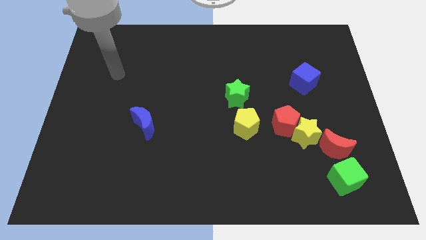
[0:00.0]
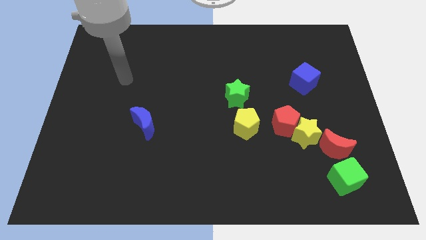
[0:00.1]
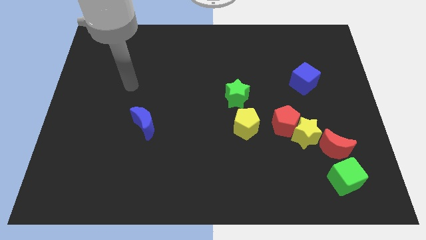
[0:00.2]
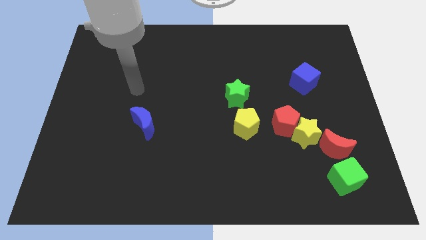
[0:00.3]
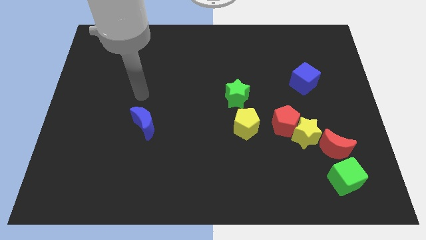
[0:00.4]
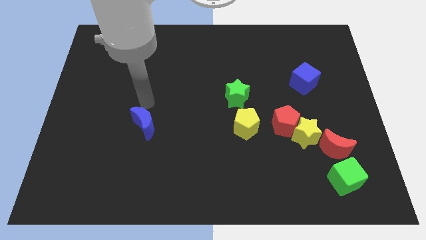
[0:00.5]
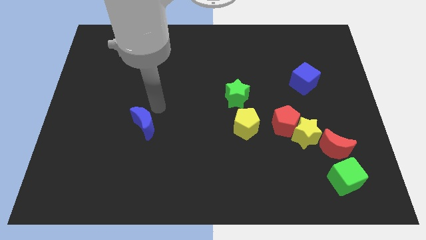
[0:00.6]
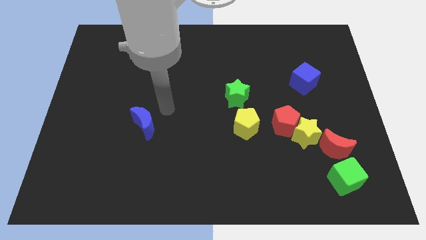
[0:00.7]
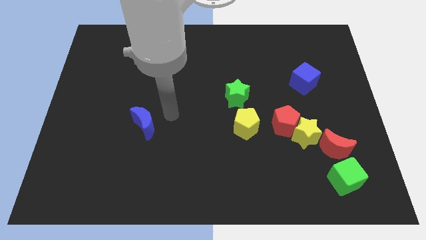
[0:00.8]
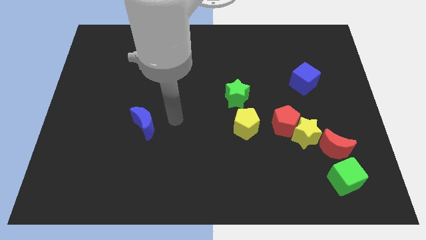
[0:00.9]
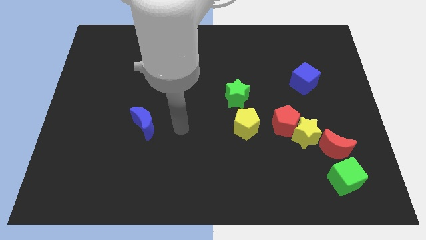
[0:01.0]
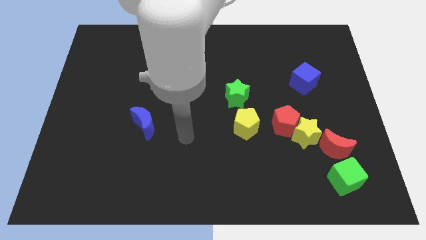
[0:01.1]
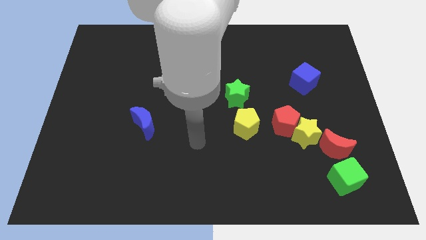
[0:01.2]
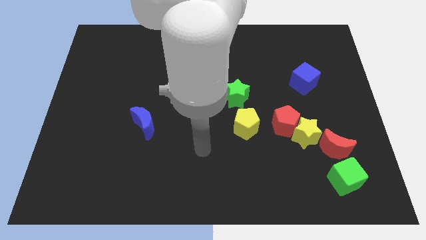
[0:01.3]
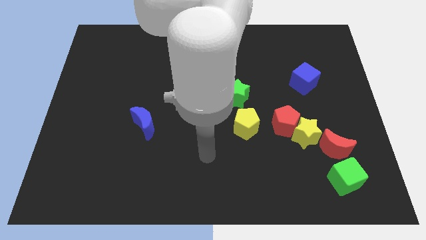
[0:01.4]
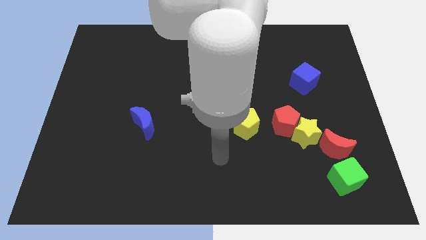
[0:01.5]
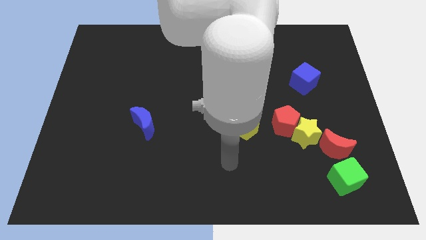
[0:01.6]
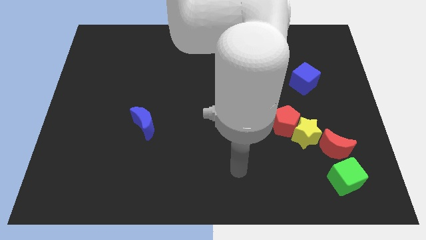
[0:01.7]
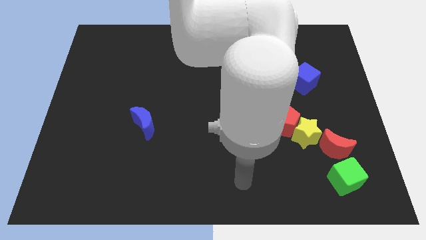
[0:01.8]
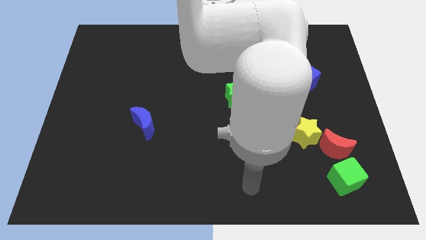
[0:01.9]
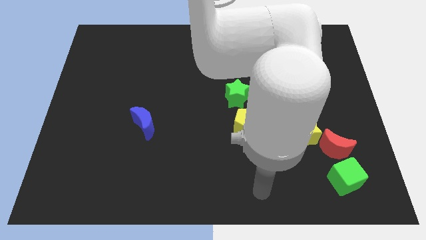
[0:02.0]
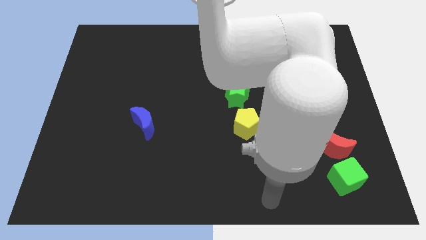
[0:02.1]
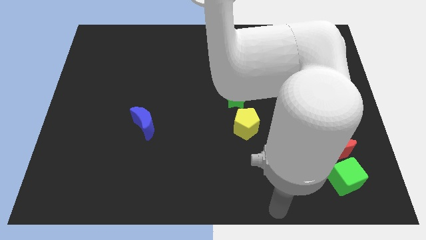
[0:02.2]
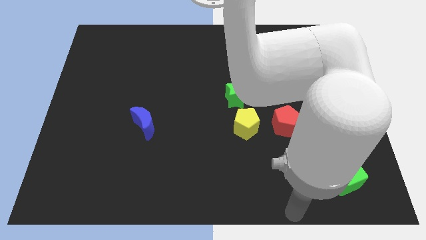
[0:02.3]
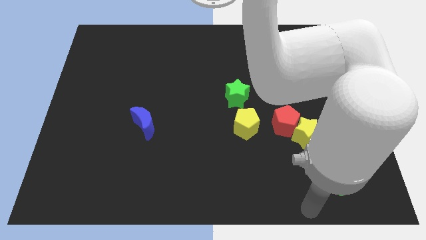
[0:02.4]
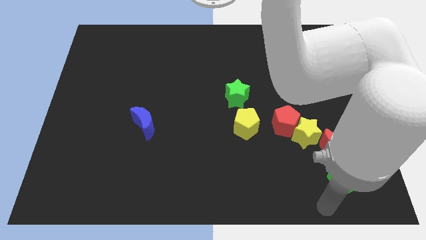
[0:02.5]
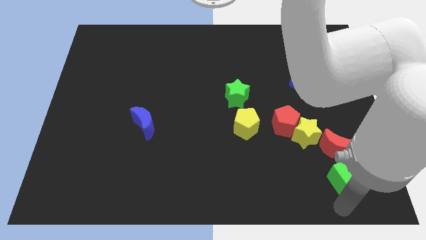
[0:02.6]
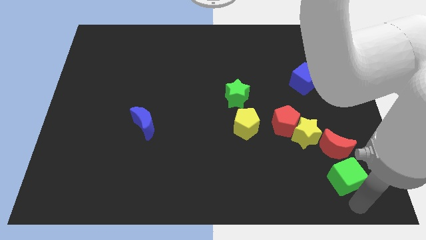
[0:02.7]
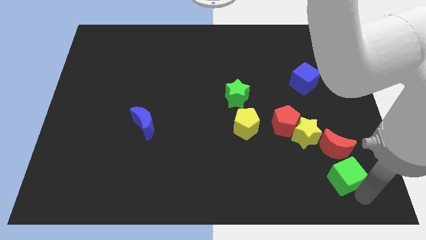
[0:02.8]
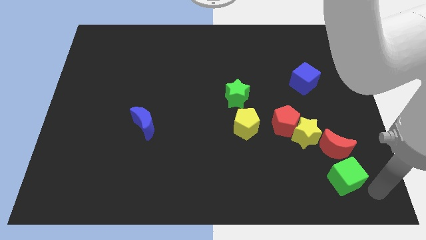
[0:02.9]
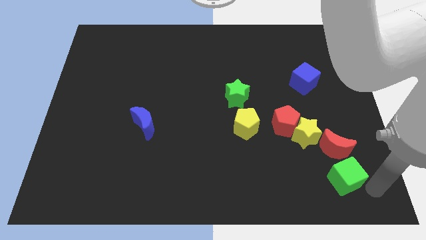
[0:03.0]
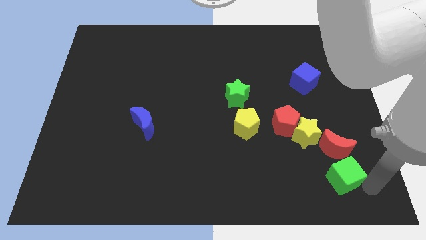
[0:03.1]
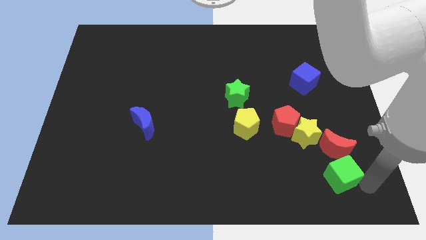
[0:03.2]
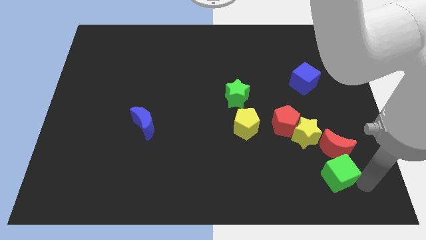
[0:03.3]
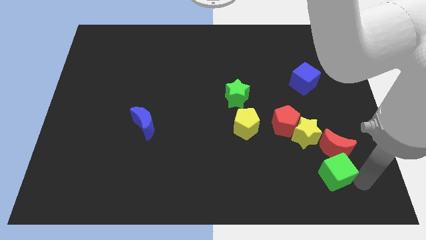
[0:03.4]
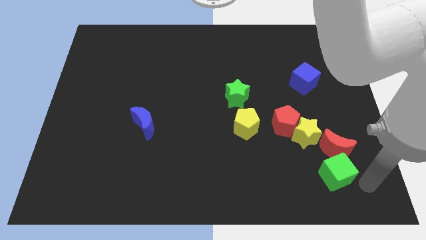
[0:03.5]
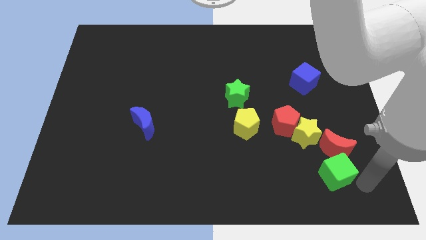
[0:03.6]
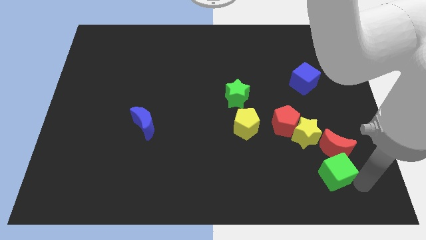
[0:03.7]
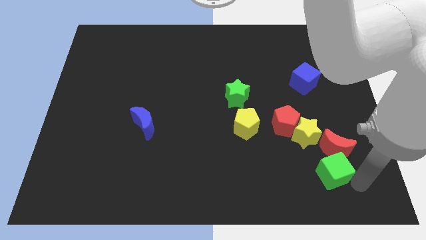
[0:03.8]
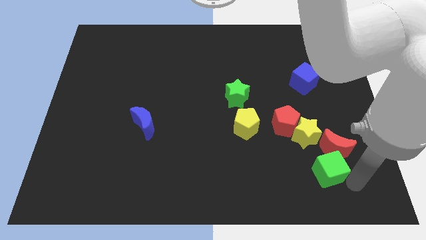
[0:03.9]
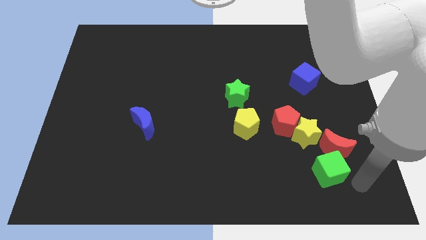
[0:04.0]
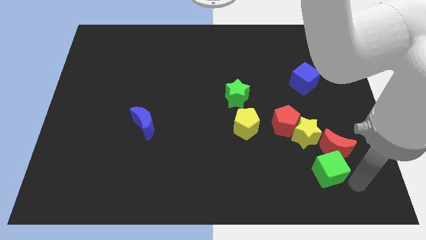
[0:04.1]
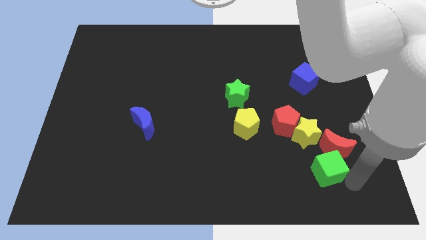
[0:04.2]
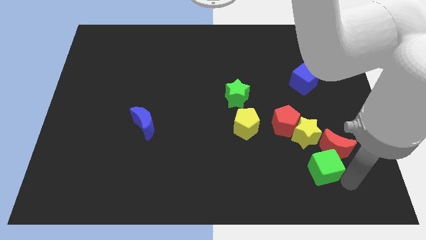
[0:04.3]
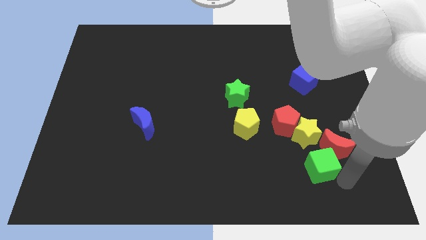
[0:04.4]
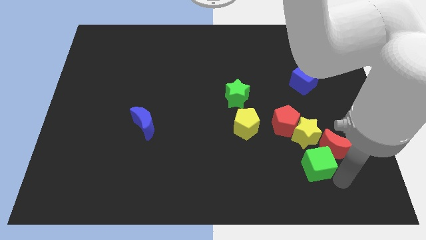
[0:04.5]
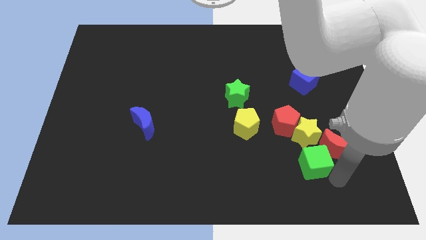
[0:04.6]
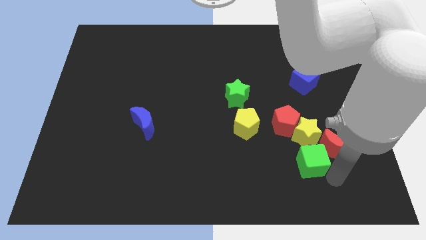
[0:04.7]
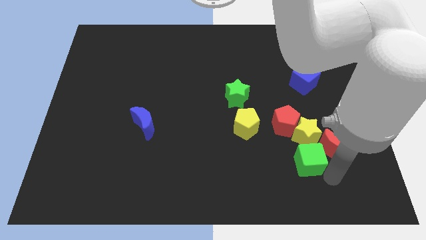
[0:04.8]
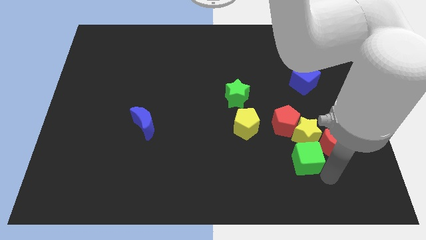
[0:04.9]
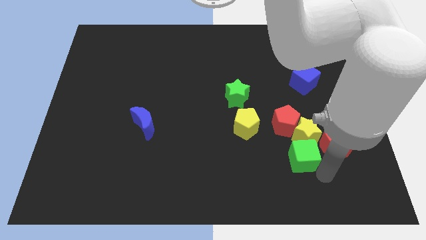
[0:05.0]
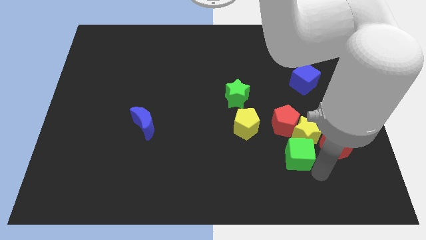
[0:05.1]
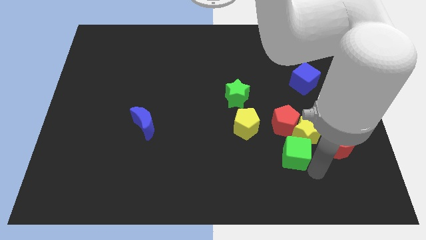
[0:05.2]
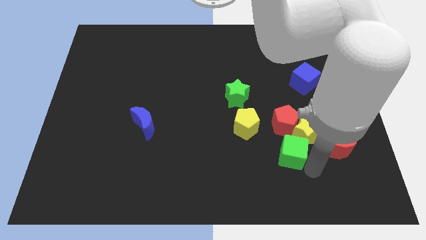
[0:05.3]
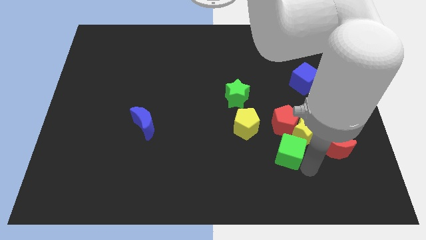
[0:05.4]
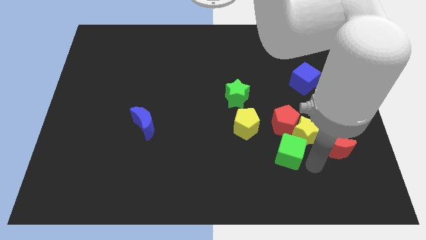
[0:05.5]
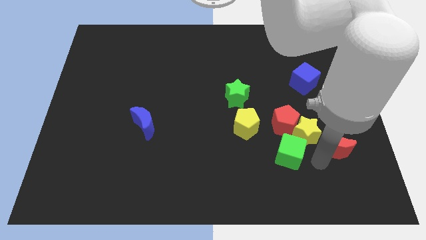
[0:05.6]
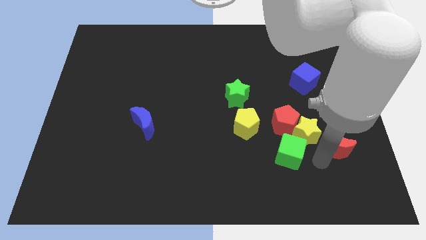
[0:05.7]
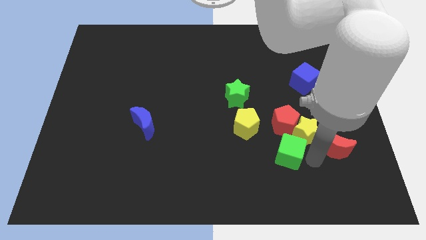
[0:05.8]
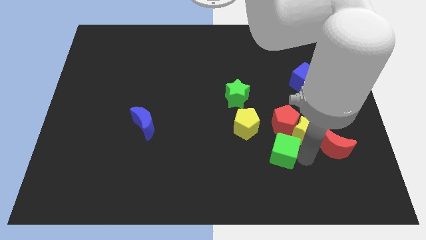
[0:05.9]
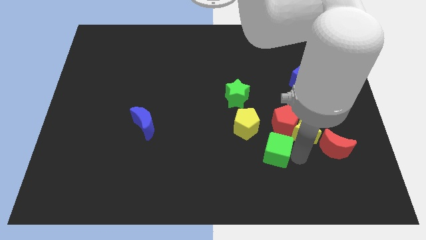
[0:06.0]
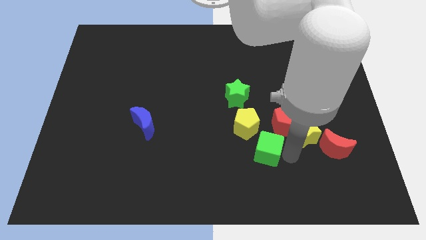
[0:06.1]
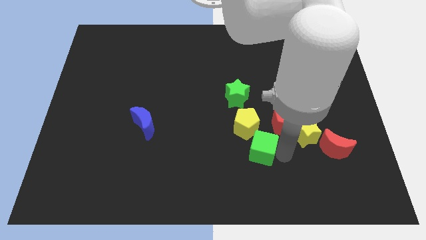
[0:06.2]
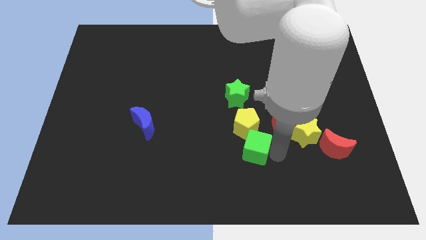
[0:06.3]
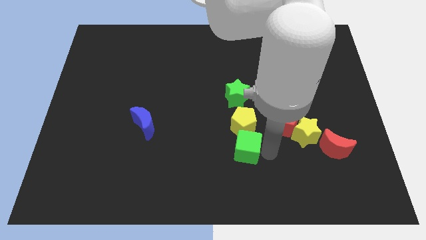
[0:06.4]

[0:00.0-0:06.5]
put the green cube to the bottom left of the yellow pentagon
